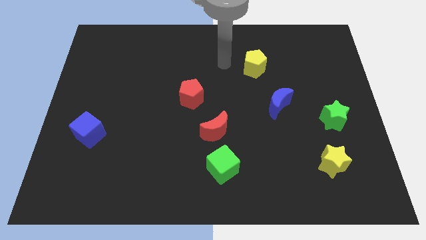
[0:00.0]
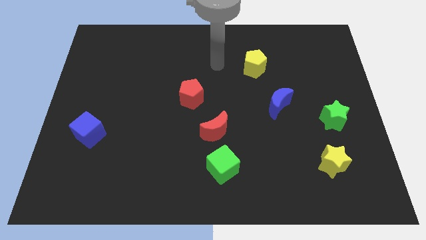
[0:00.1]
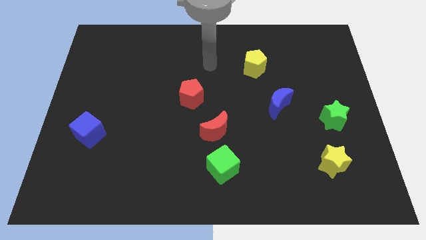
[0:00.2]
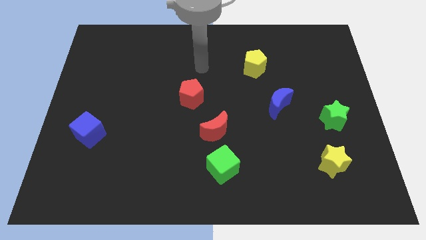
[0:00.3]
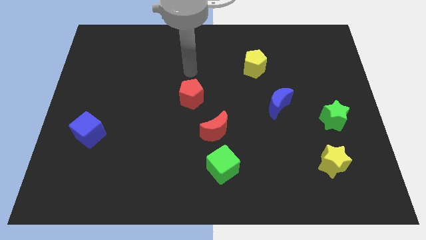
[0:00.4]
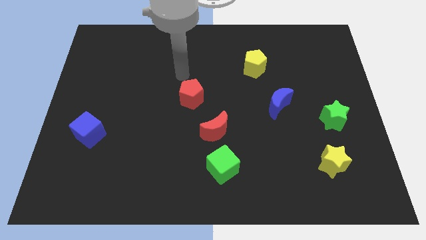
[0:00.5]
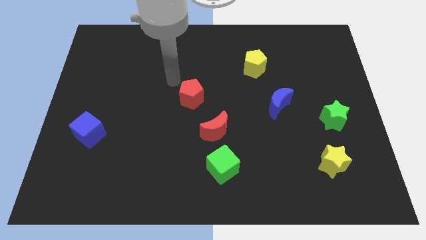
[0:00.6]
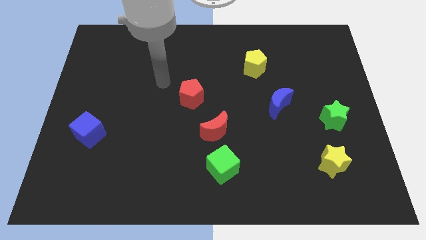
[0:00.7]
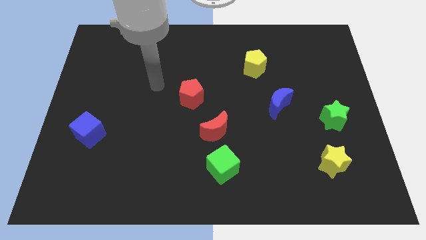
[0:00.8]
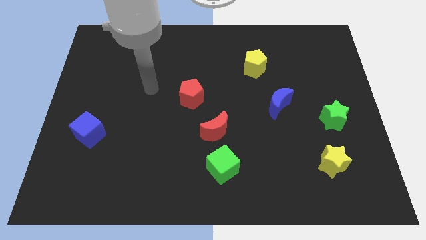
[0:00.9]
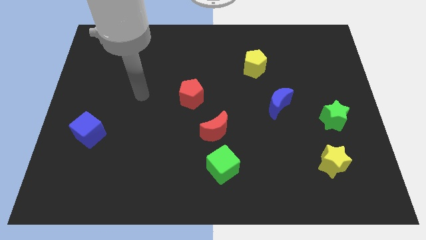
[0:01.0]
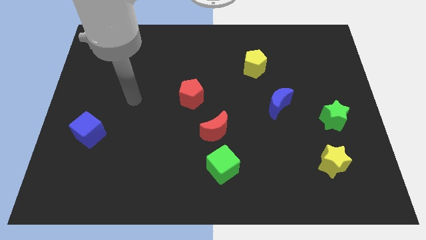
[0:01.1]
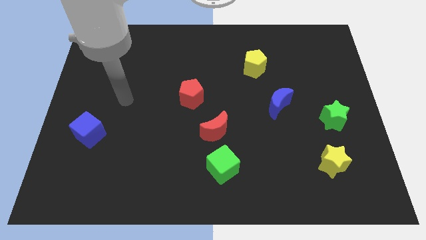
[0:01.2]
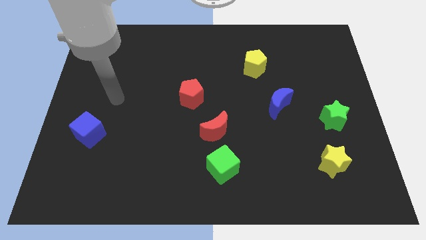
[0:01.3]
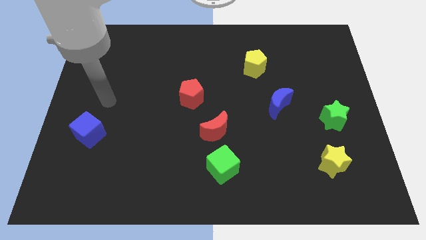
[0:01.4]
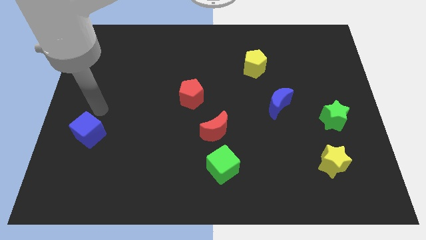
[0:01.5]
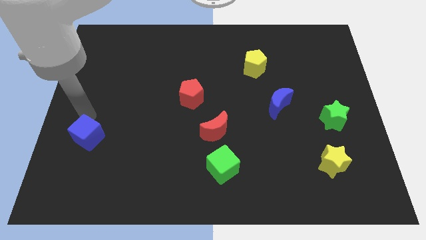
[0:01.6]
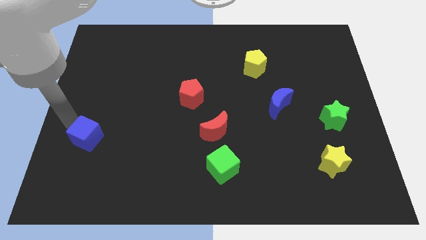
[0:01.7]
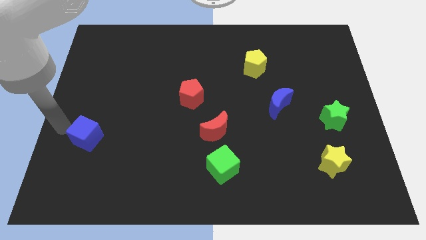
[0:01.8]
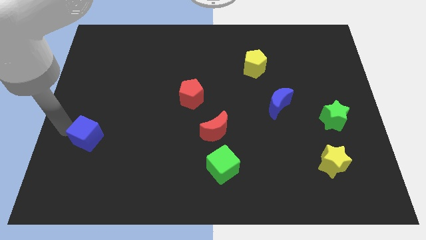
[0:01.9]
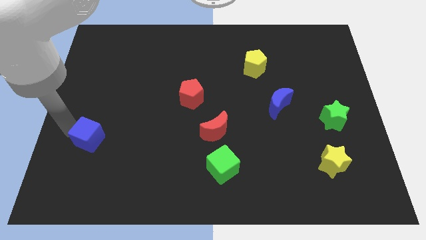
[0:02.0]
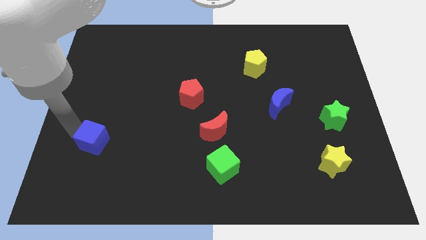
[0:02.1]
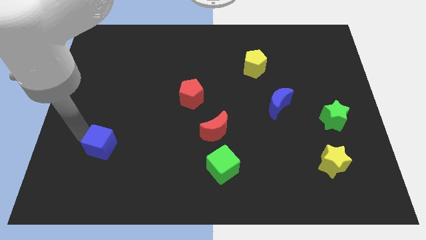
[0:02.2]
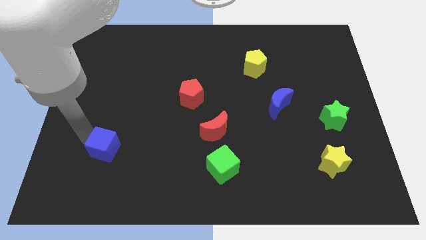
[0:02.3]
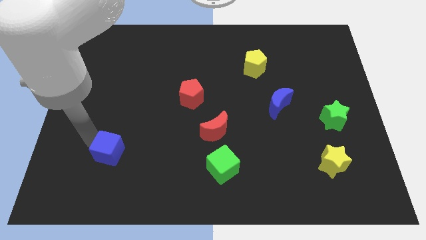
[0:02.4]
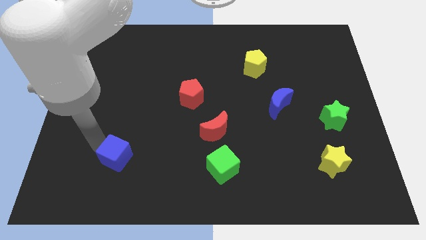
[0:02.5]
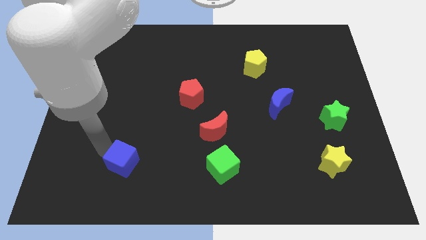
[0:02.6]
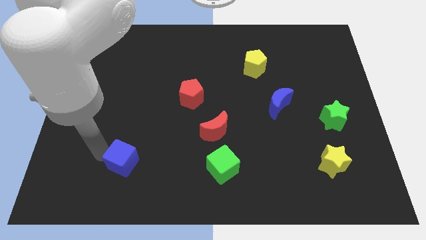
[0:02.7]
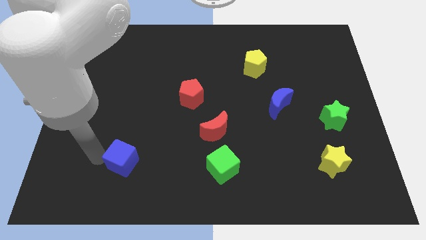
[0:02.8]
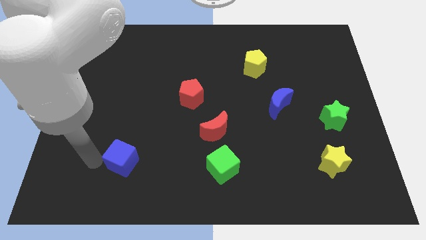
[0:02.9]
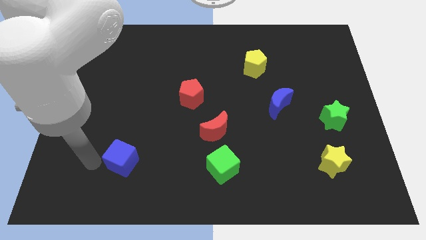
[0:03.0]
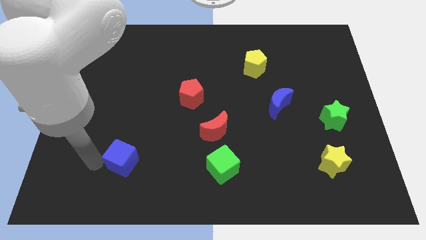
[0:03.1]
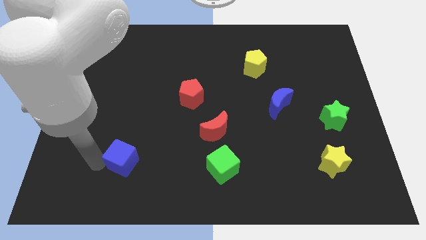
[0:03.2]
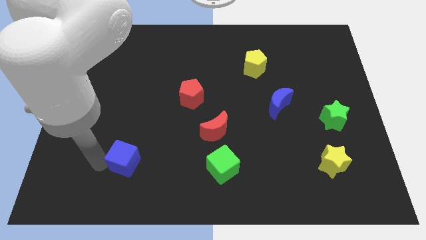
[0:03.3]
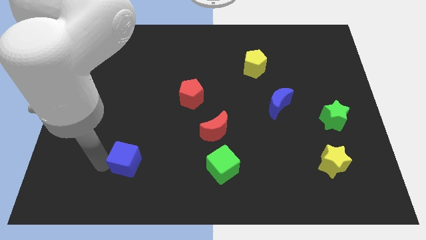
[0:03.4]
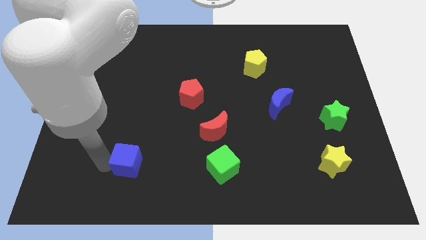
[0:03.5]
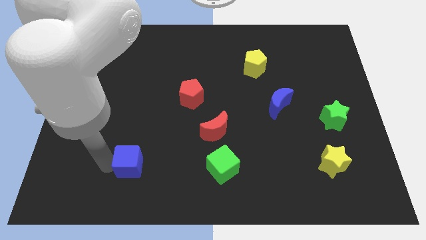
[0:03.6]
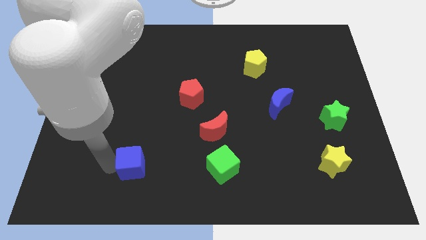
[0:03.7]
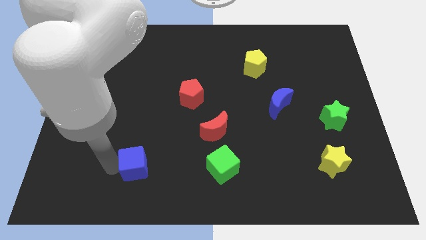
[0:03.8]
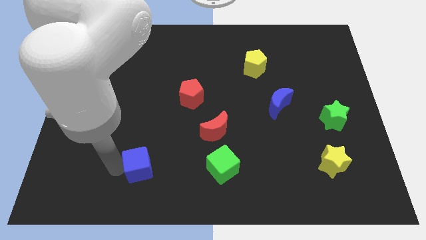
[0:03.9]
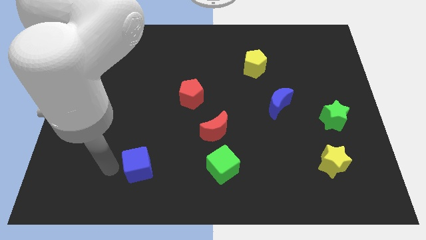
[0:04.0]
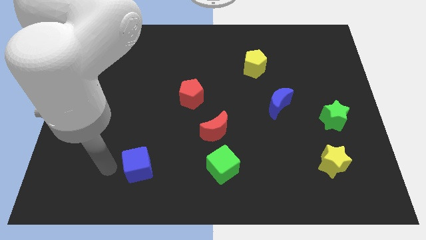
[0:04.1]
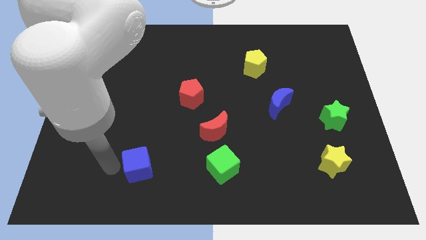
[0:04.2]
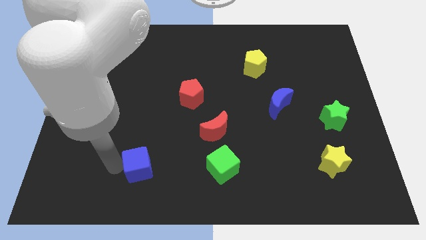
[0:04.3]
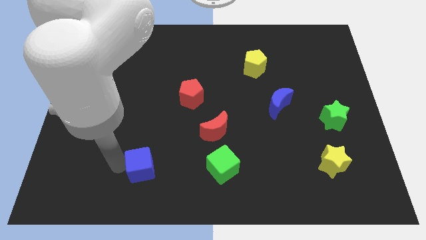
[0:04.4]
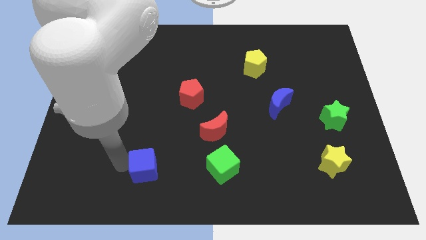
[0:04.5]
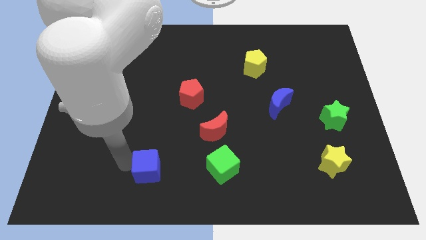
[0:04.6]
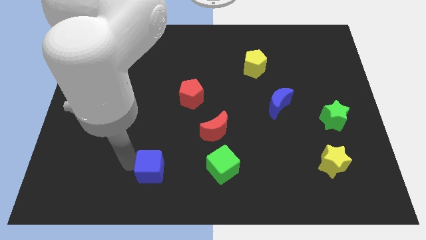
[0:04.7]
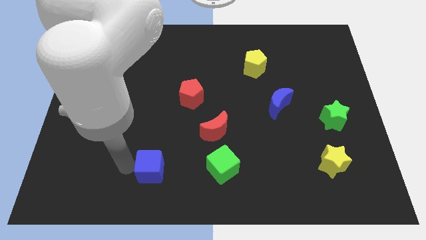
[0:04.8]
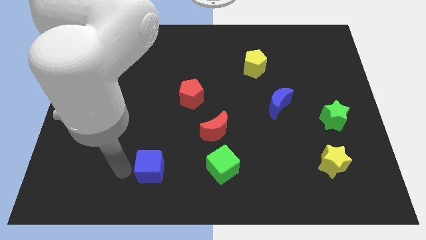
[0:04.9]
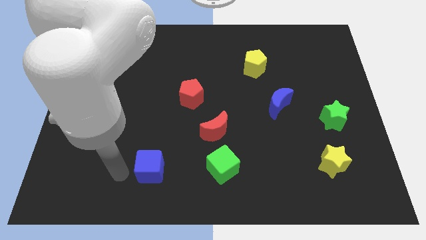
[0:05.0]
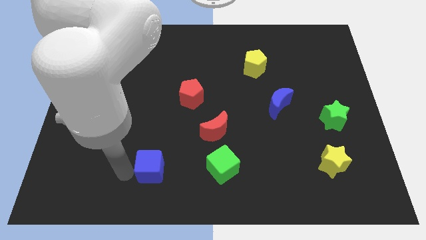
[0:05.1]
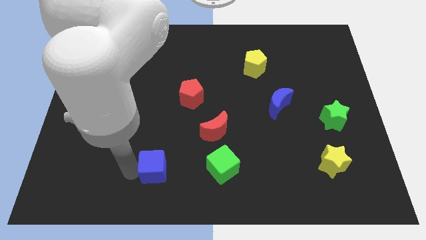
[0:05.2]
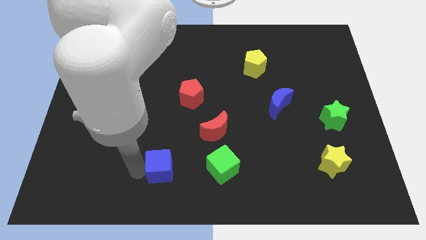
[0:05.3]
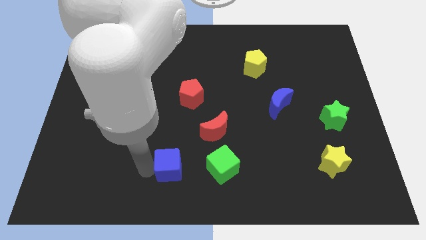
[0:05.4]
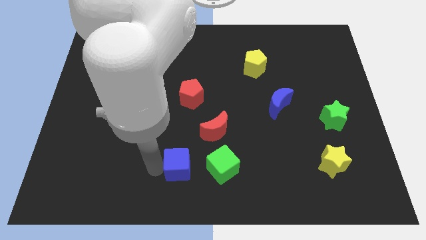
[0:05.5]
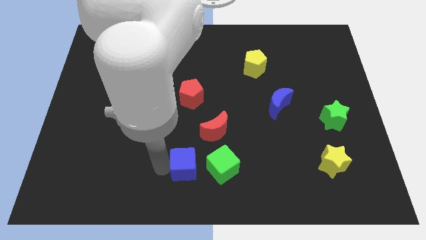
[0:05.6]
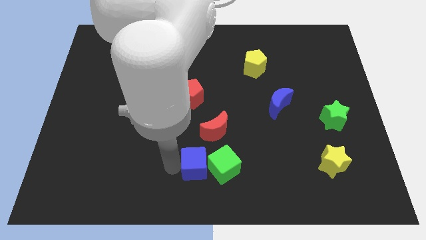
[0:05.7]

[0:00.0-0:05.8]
put the blue cube to the green cube

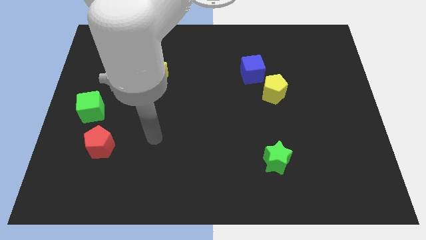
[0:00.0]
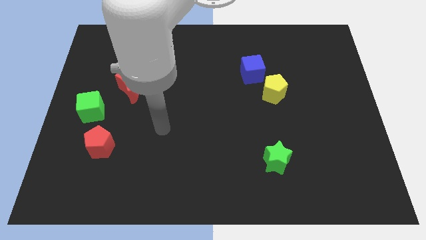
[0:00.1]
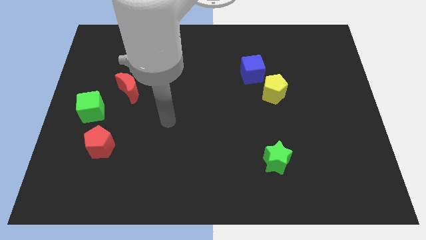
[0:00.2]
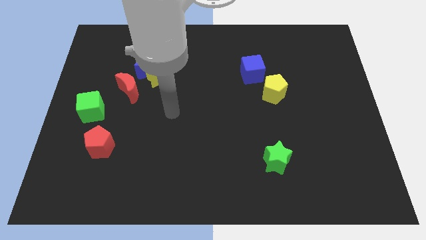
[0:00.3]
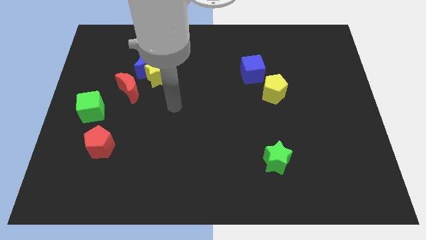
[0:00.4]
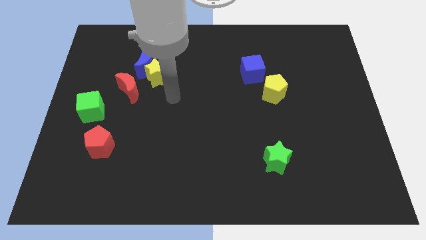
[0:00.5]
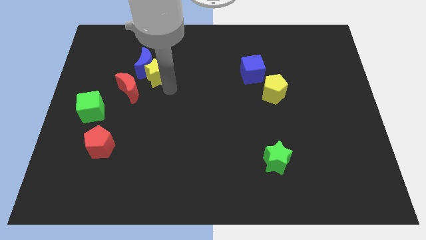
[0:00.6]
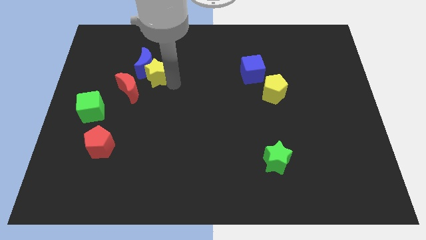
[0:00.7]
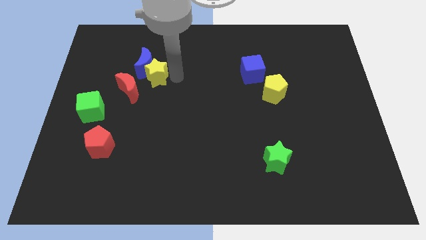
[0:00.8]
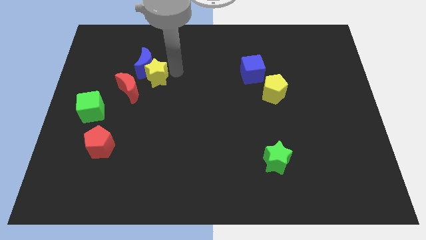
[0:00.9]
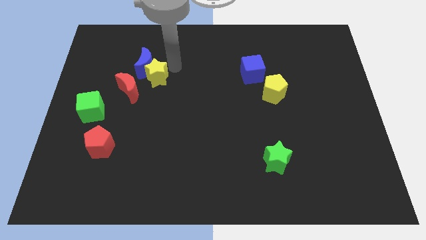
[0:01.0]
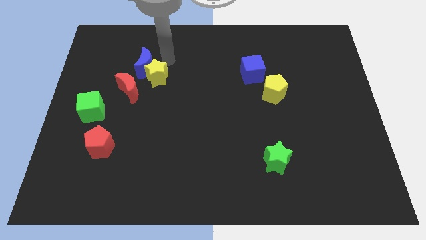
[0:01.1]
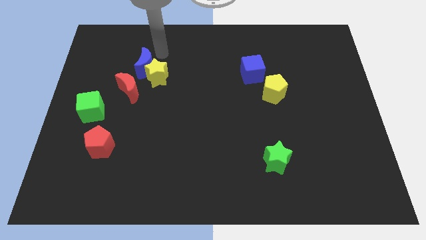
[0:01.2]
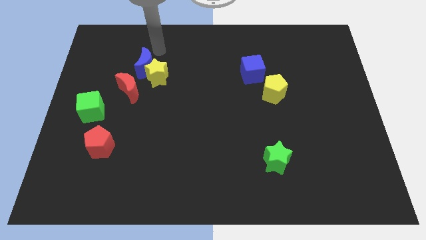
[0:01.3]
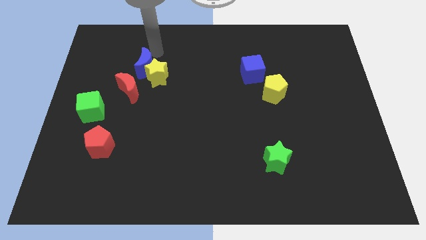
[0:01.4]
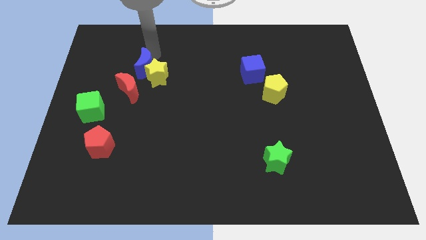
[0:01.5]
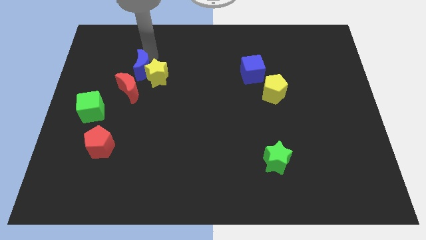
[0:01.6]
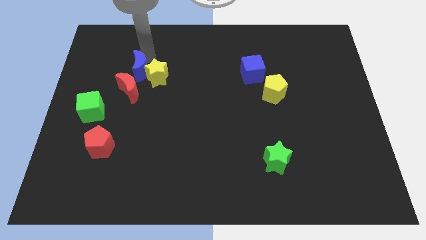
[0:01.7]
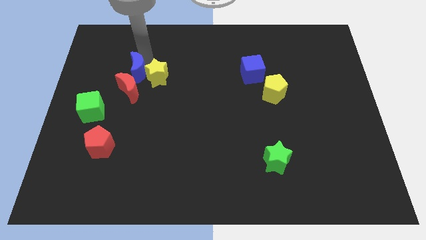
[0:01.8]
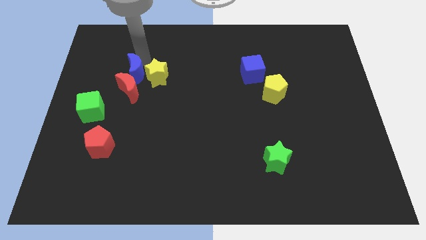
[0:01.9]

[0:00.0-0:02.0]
push the blue moon next to the red moon
